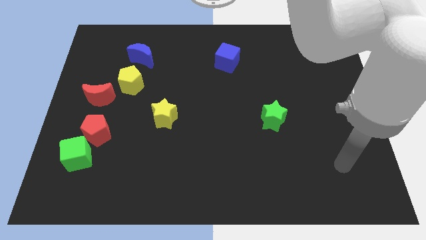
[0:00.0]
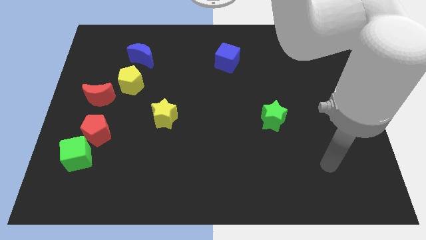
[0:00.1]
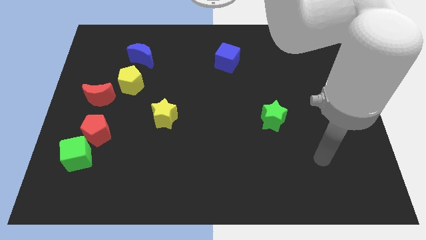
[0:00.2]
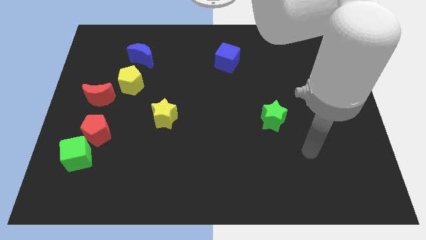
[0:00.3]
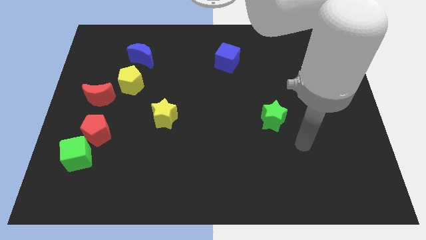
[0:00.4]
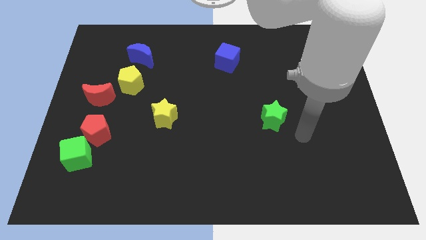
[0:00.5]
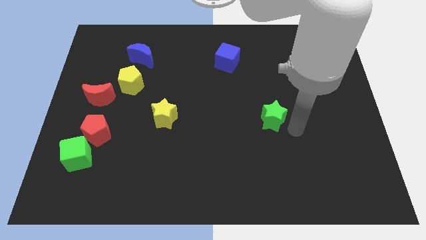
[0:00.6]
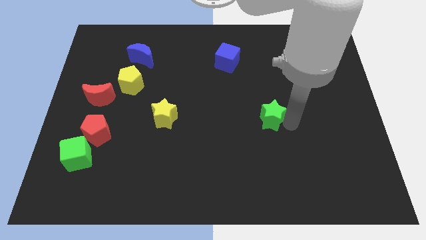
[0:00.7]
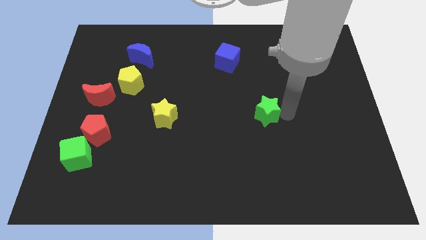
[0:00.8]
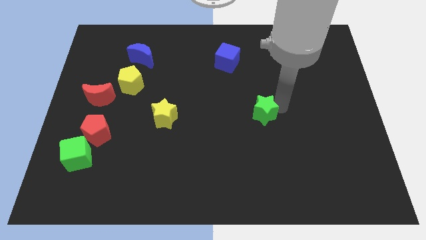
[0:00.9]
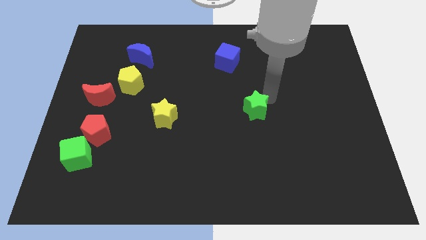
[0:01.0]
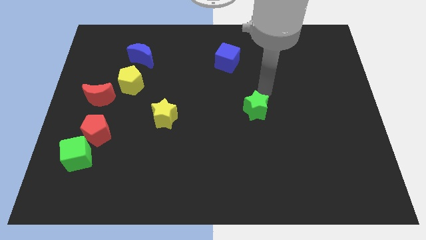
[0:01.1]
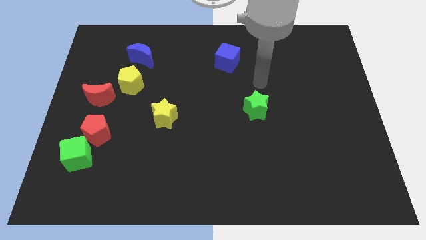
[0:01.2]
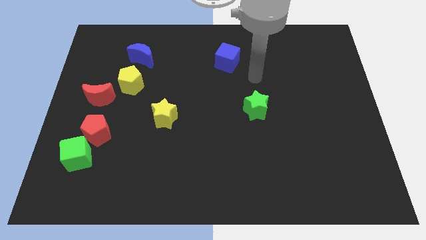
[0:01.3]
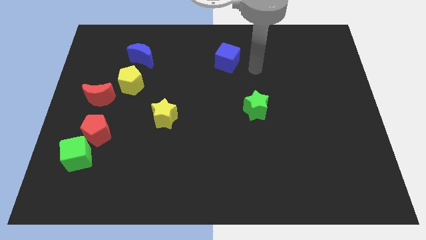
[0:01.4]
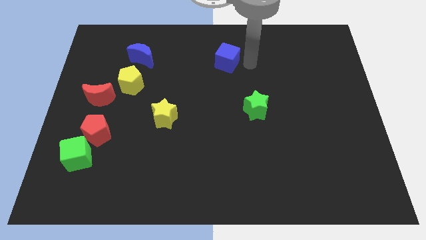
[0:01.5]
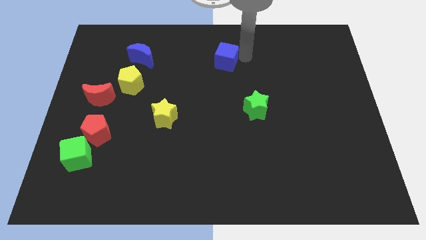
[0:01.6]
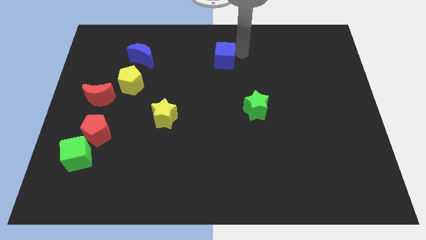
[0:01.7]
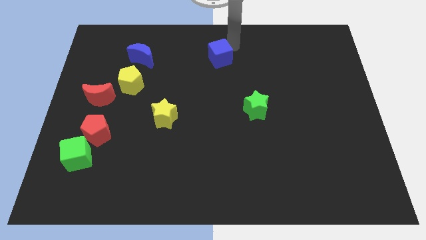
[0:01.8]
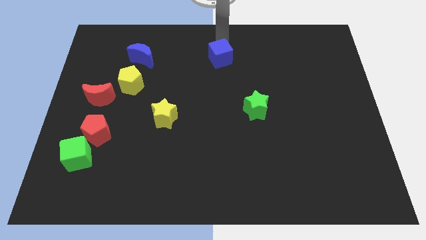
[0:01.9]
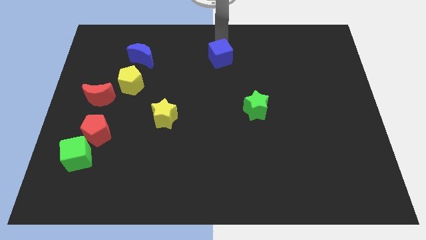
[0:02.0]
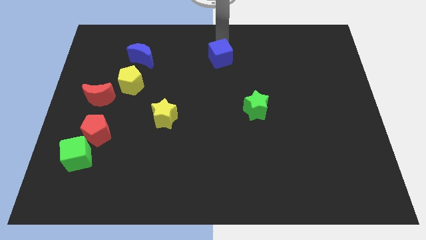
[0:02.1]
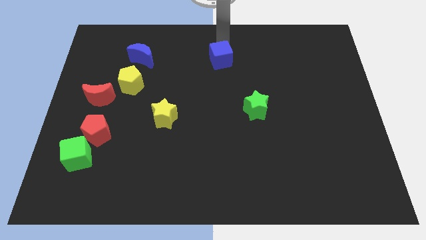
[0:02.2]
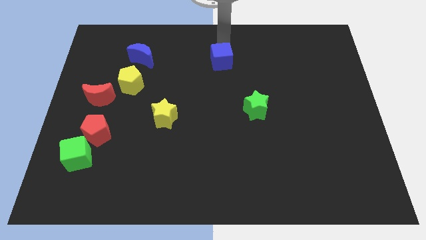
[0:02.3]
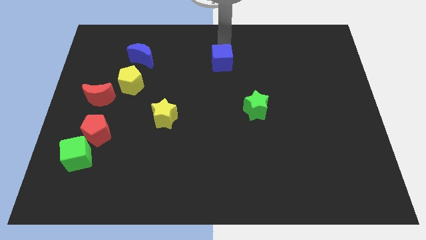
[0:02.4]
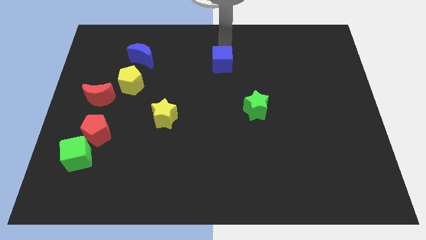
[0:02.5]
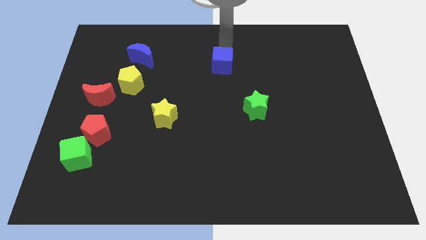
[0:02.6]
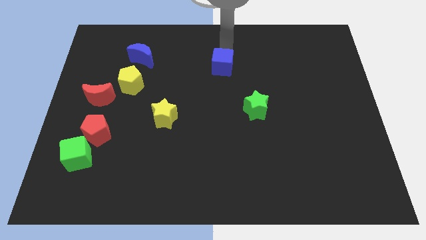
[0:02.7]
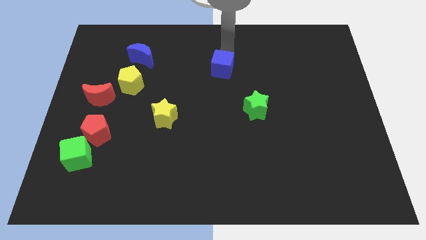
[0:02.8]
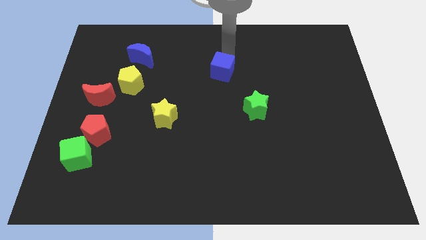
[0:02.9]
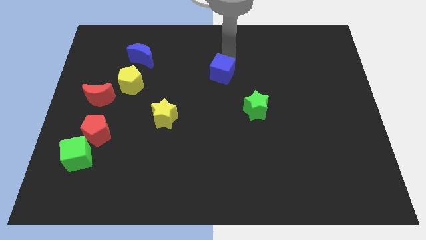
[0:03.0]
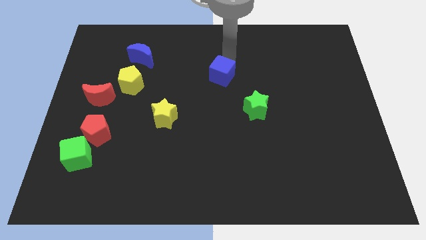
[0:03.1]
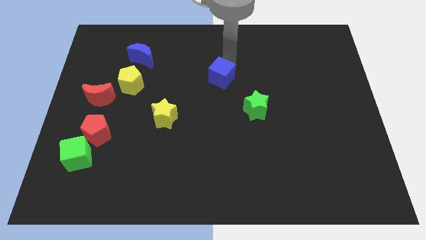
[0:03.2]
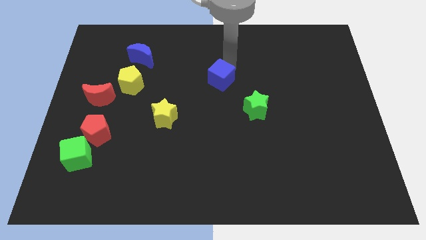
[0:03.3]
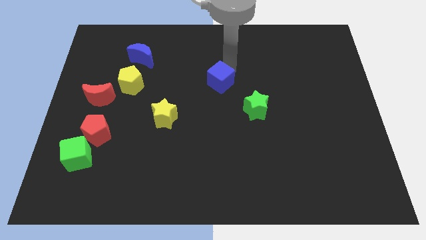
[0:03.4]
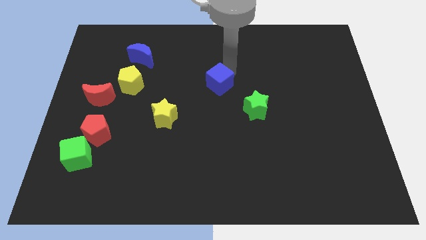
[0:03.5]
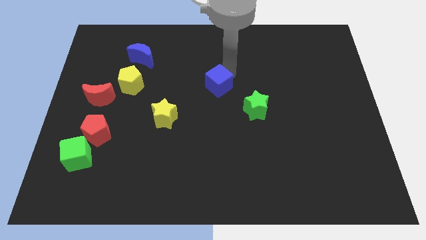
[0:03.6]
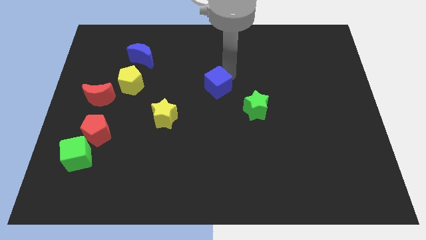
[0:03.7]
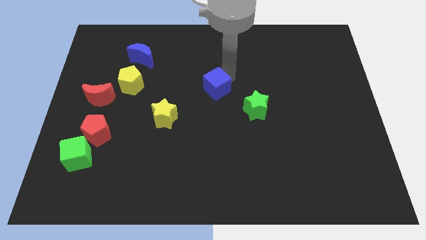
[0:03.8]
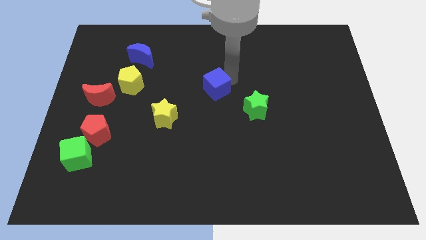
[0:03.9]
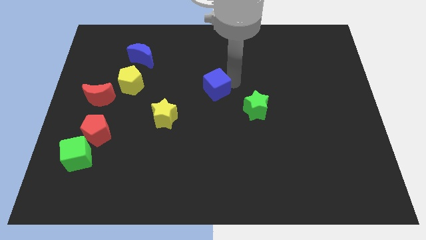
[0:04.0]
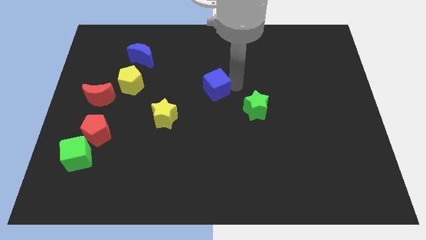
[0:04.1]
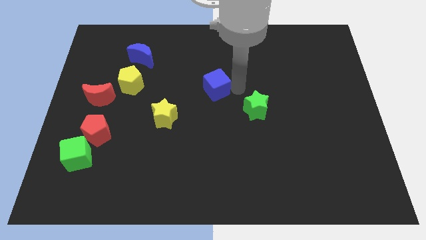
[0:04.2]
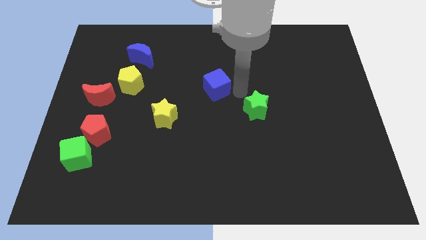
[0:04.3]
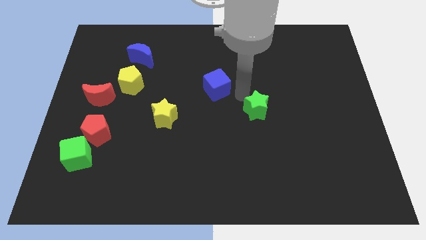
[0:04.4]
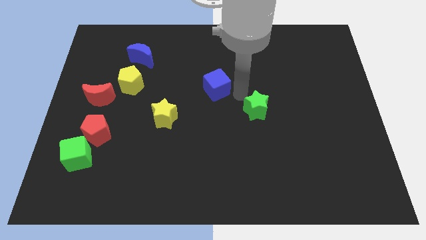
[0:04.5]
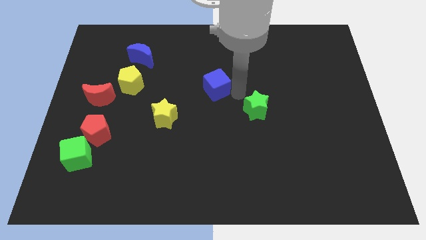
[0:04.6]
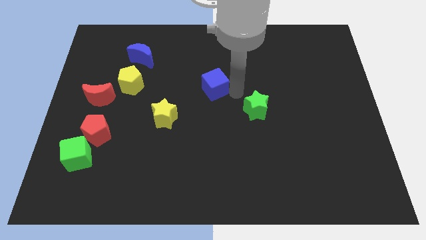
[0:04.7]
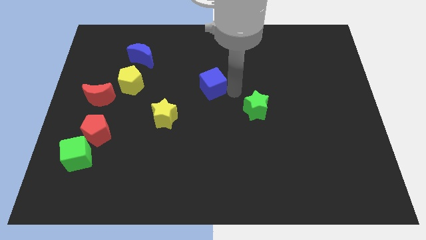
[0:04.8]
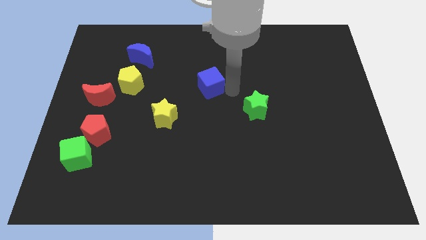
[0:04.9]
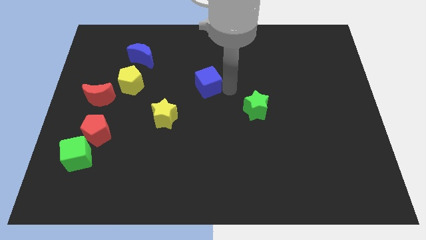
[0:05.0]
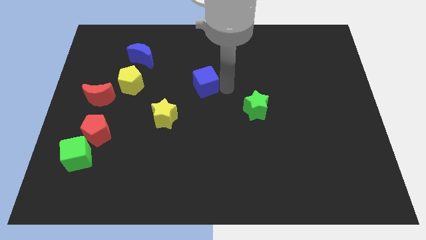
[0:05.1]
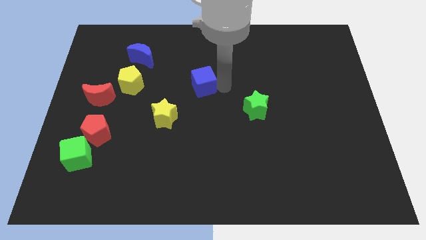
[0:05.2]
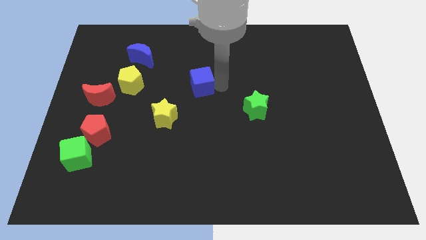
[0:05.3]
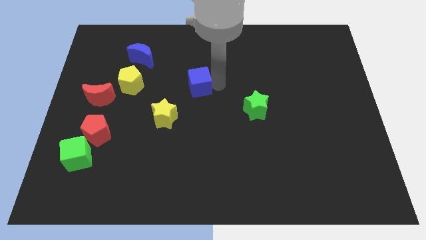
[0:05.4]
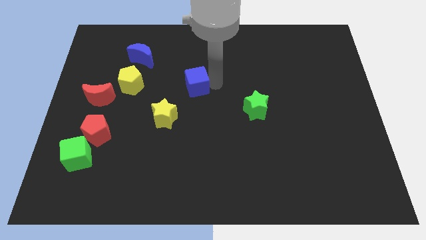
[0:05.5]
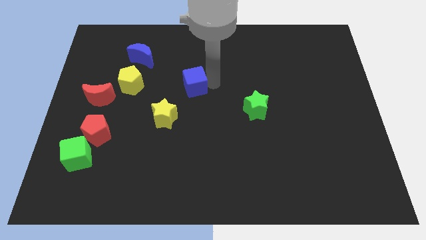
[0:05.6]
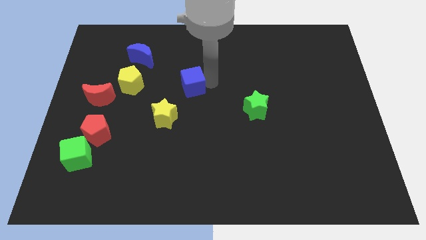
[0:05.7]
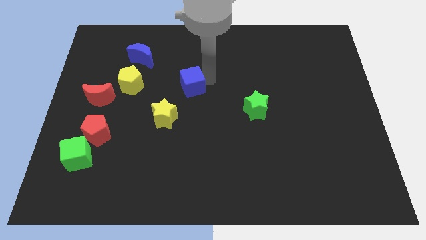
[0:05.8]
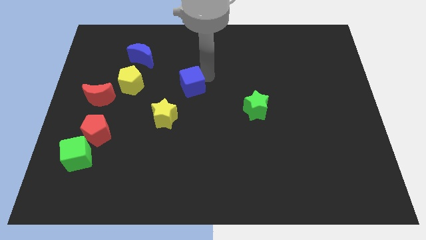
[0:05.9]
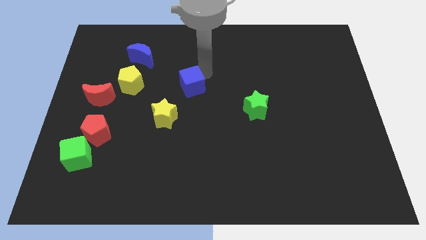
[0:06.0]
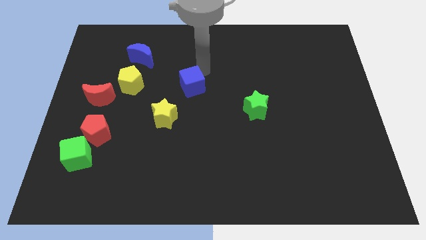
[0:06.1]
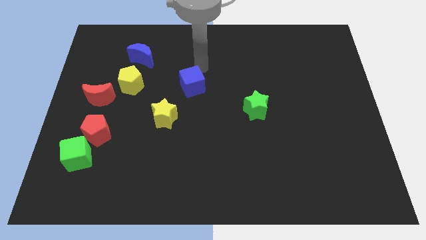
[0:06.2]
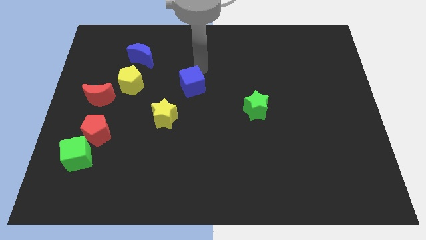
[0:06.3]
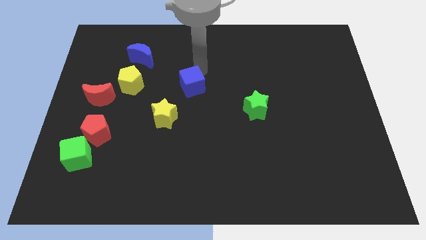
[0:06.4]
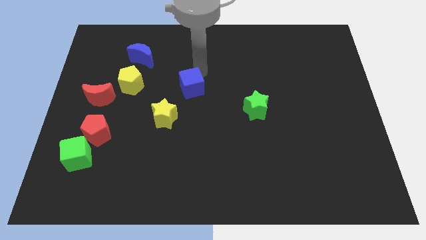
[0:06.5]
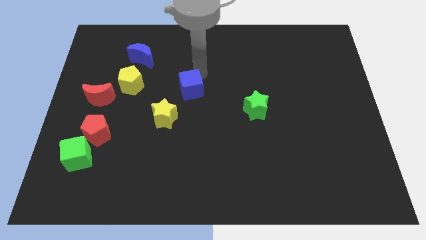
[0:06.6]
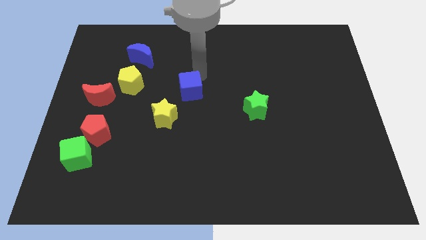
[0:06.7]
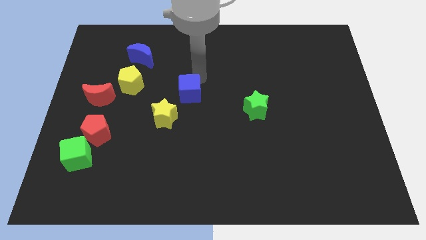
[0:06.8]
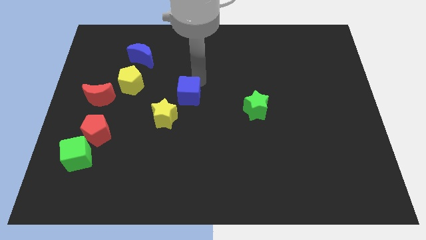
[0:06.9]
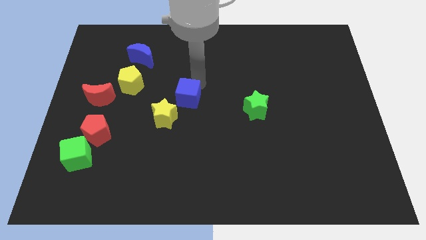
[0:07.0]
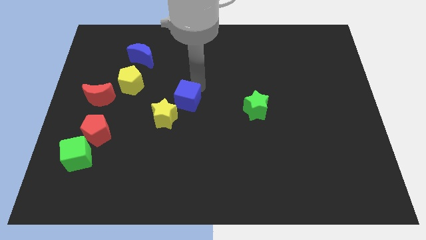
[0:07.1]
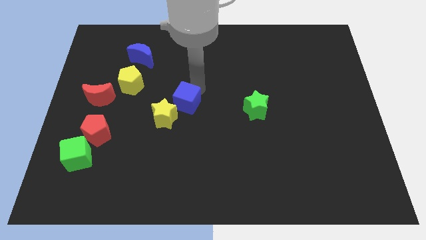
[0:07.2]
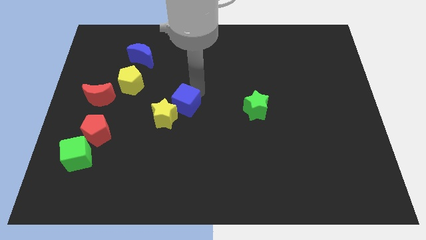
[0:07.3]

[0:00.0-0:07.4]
move the blue cube close to the yellow star
